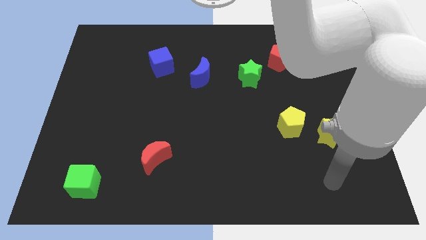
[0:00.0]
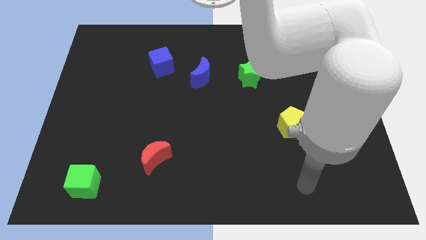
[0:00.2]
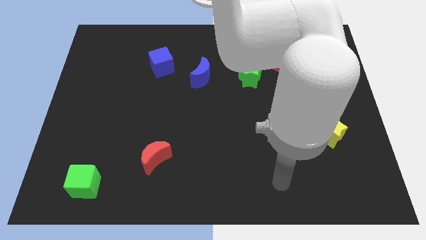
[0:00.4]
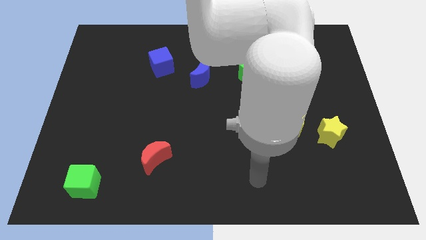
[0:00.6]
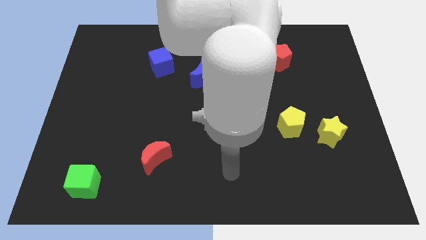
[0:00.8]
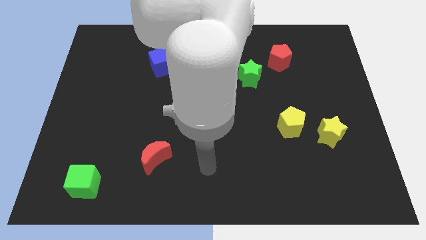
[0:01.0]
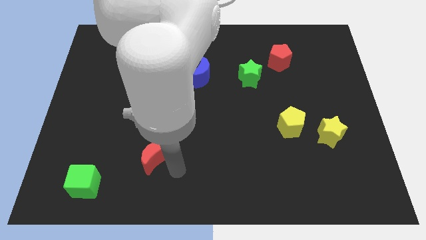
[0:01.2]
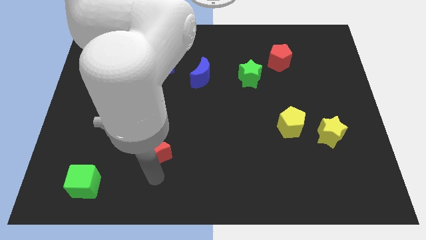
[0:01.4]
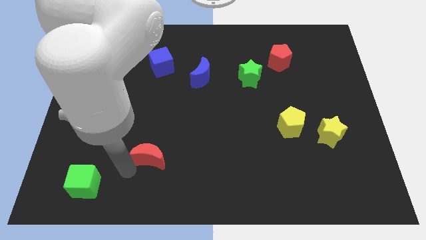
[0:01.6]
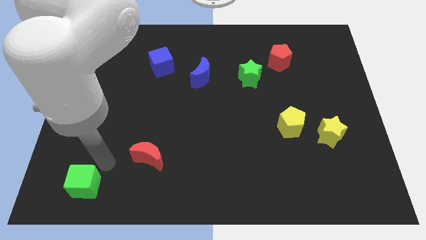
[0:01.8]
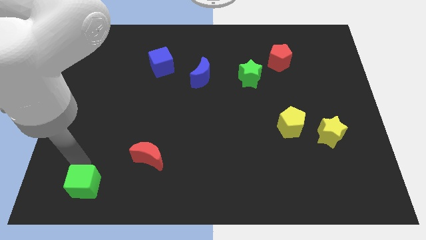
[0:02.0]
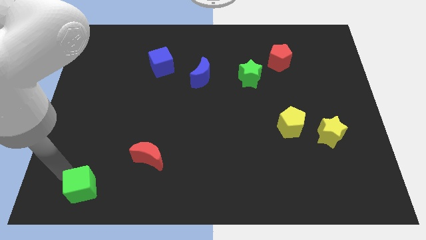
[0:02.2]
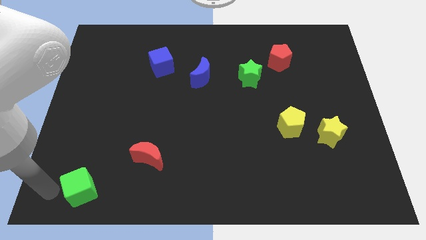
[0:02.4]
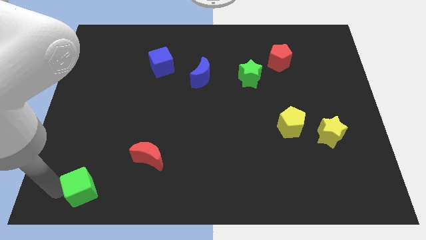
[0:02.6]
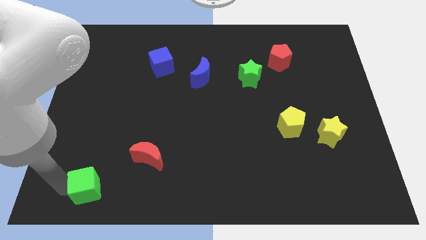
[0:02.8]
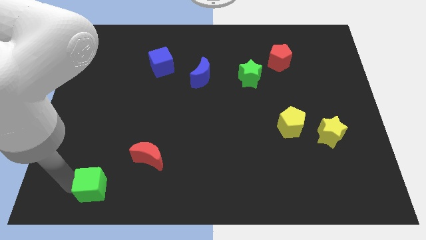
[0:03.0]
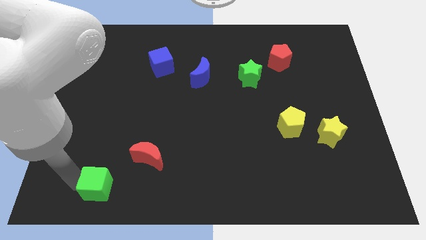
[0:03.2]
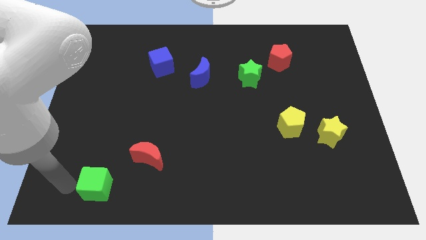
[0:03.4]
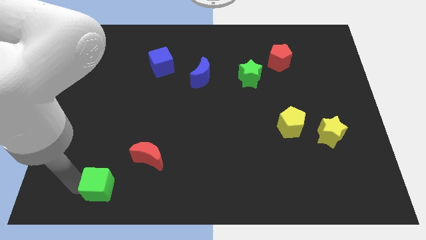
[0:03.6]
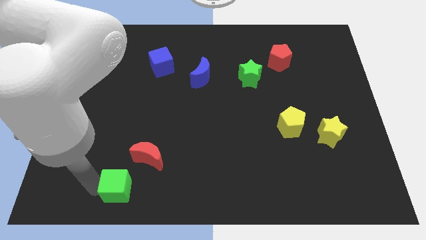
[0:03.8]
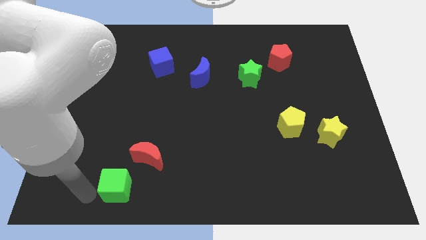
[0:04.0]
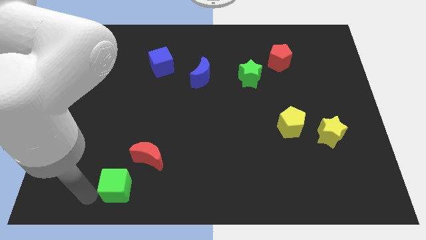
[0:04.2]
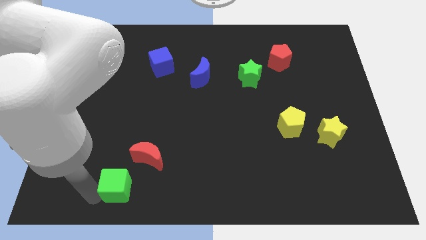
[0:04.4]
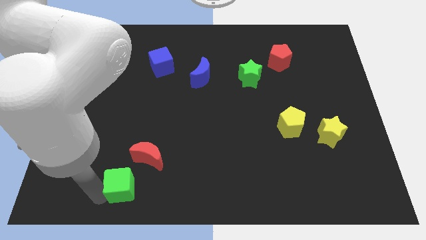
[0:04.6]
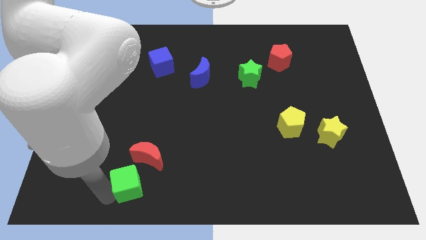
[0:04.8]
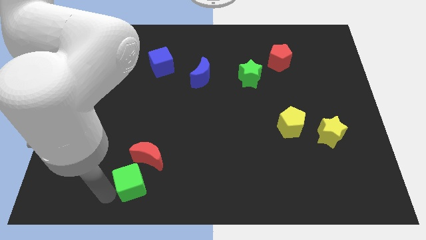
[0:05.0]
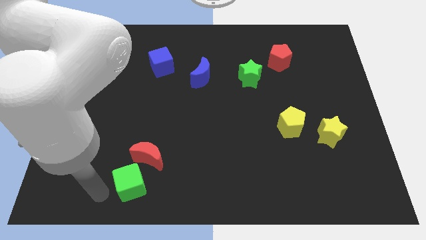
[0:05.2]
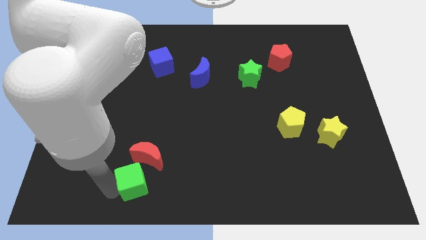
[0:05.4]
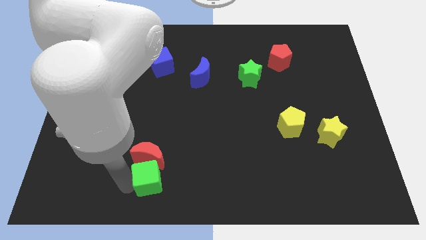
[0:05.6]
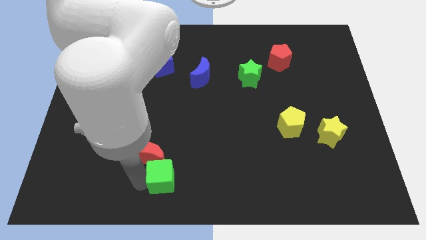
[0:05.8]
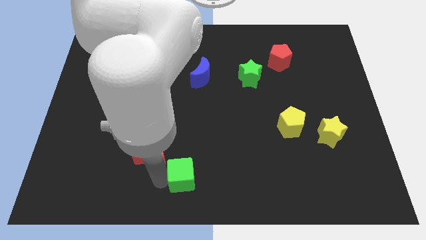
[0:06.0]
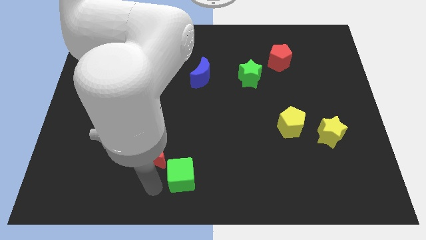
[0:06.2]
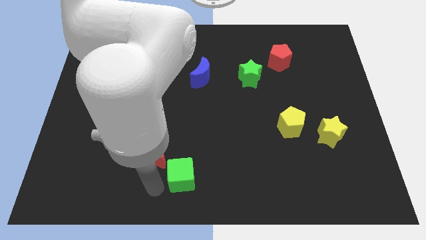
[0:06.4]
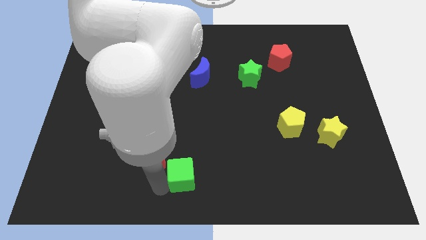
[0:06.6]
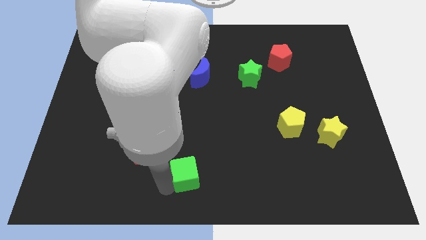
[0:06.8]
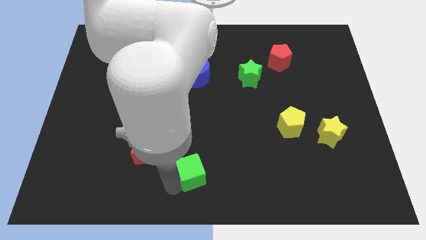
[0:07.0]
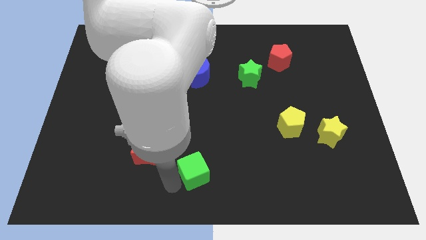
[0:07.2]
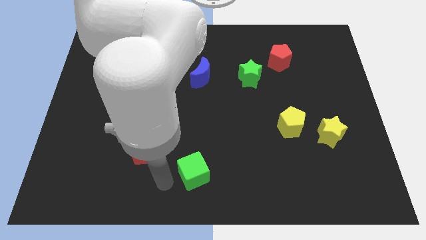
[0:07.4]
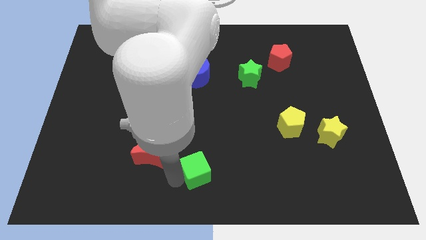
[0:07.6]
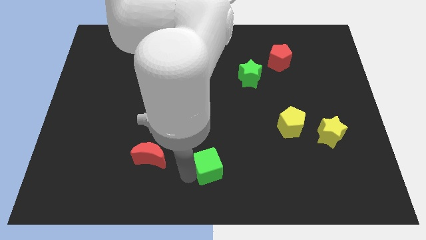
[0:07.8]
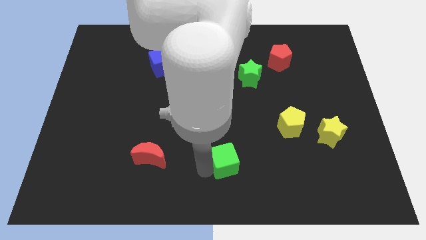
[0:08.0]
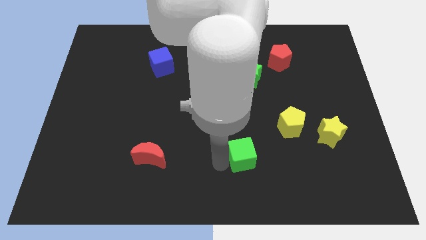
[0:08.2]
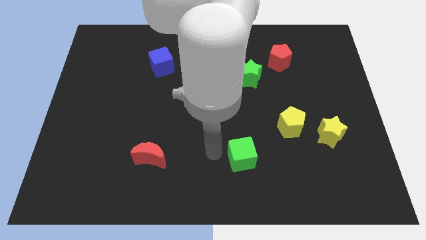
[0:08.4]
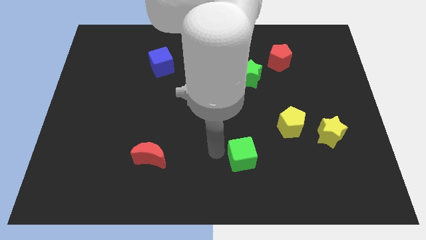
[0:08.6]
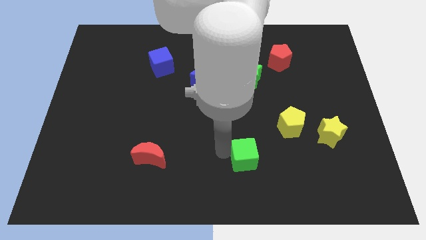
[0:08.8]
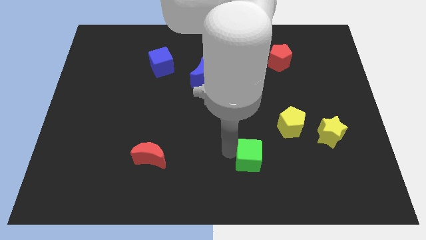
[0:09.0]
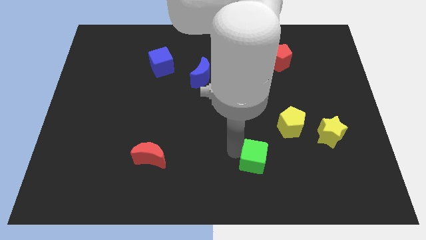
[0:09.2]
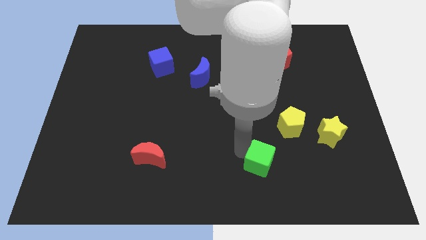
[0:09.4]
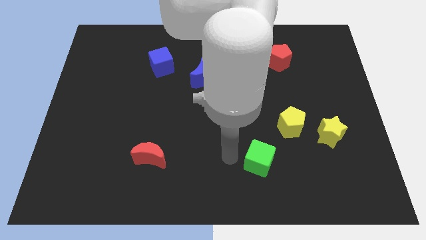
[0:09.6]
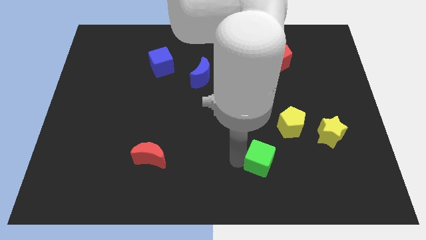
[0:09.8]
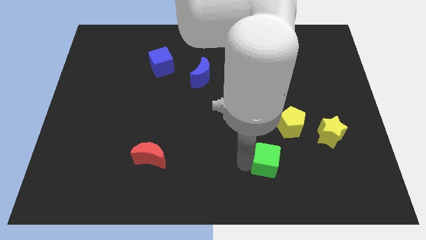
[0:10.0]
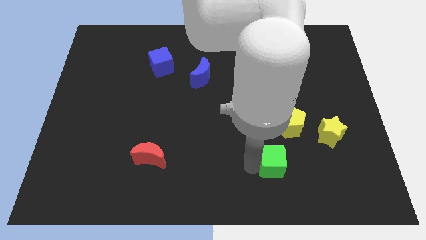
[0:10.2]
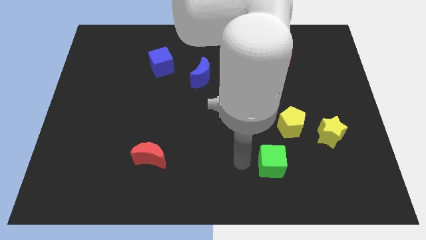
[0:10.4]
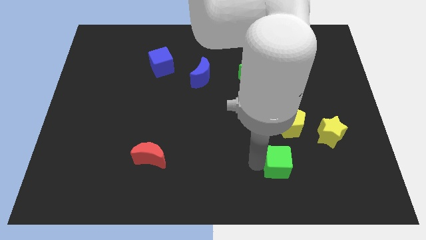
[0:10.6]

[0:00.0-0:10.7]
put the green cube to the bottom of the yellow pentagon

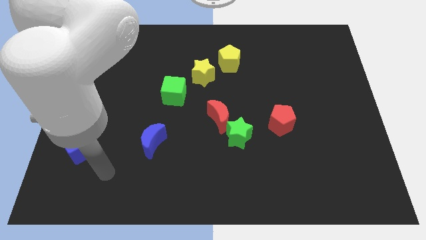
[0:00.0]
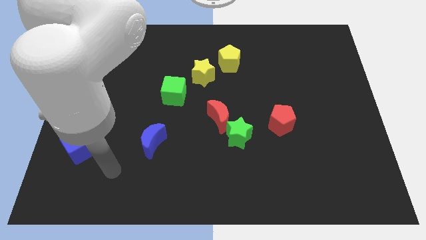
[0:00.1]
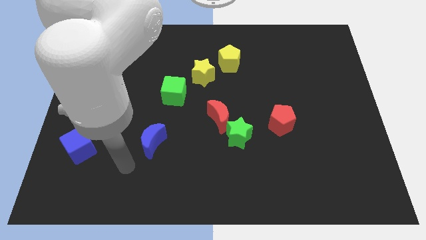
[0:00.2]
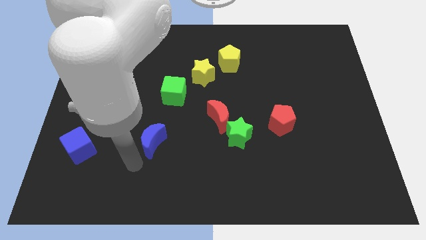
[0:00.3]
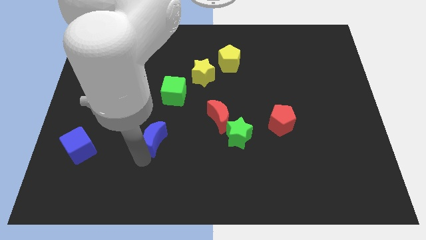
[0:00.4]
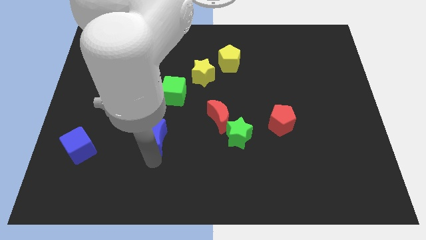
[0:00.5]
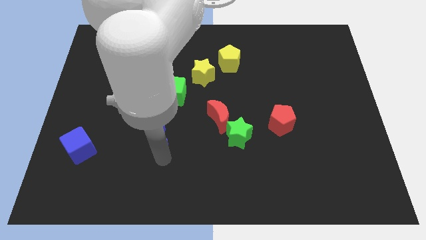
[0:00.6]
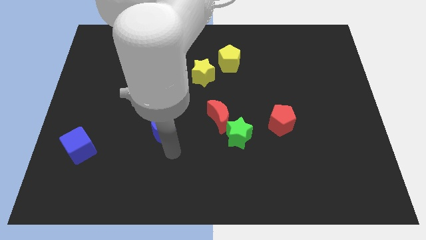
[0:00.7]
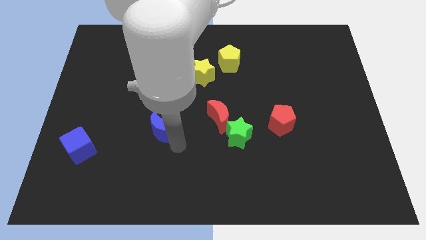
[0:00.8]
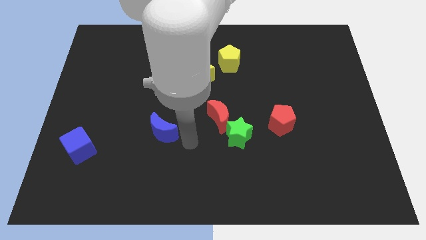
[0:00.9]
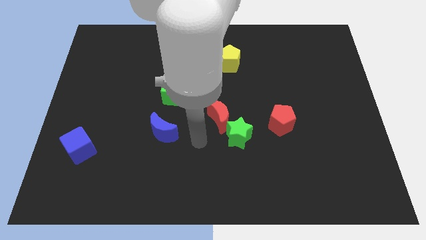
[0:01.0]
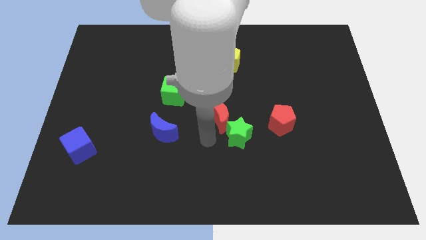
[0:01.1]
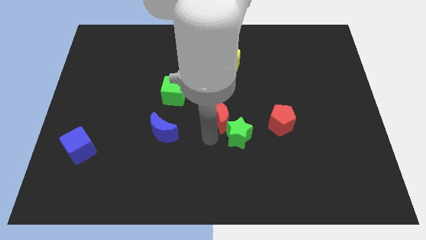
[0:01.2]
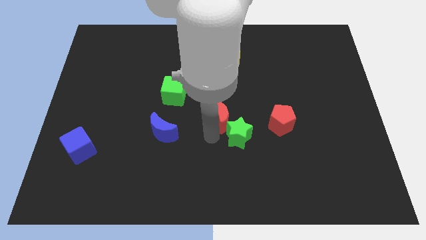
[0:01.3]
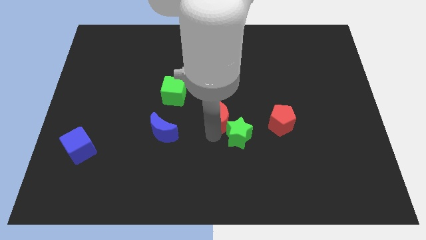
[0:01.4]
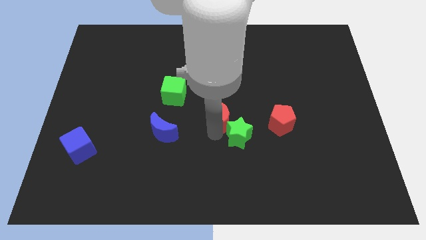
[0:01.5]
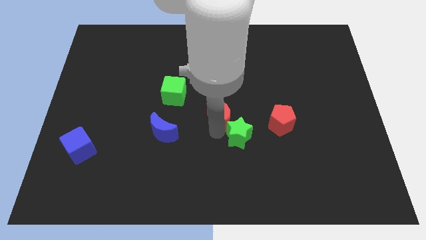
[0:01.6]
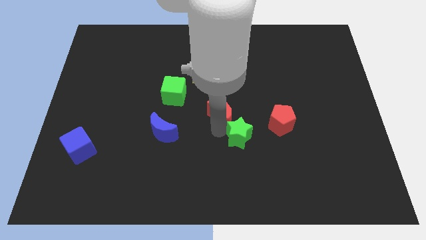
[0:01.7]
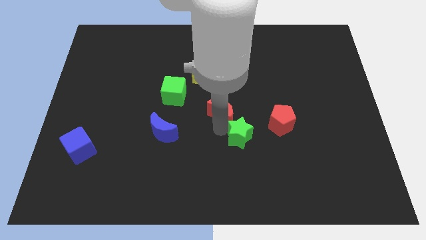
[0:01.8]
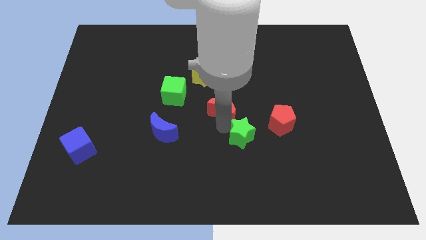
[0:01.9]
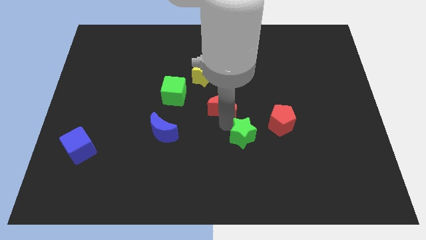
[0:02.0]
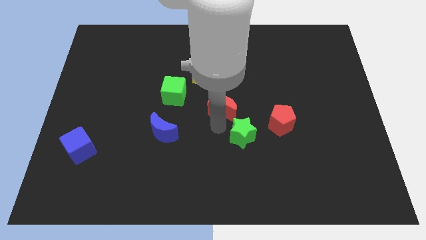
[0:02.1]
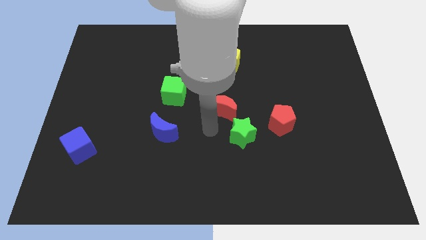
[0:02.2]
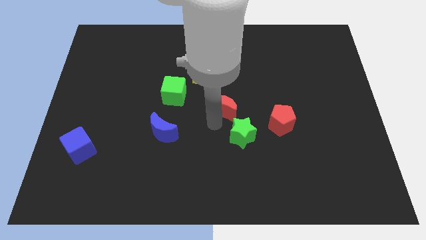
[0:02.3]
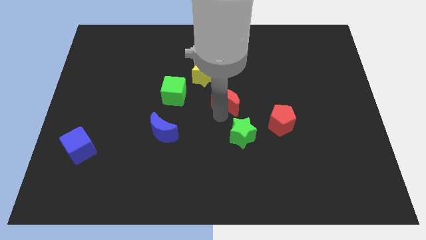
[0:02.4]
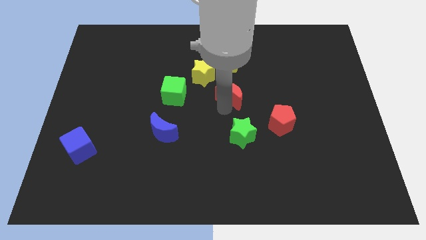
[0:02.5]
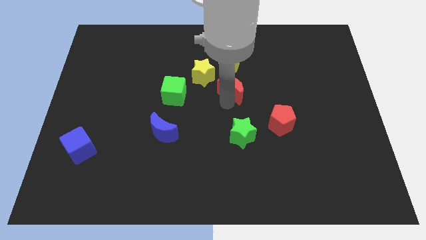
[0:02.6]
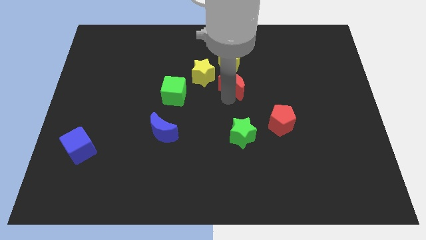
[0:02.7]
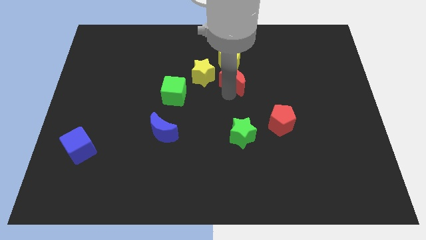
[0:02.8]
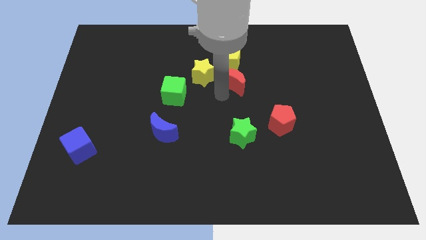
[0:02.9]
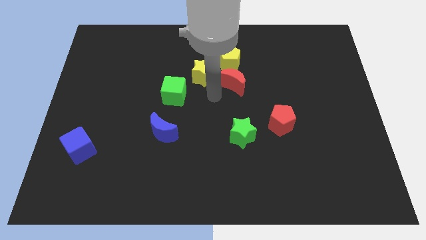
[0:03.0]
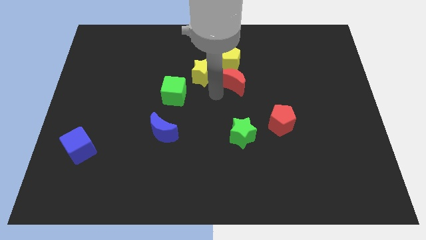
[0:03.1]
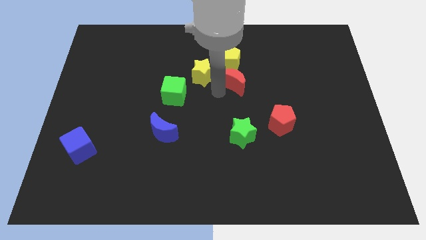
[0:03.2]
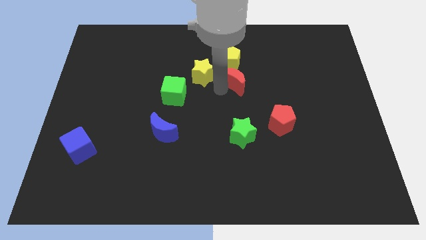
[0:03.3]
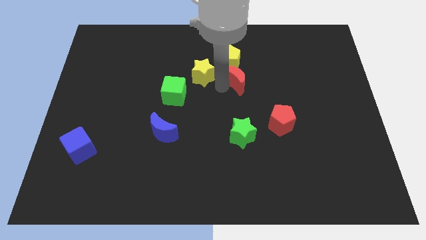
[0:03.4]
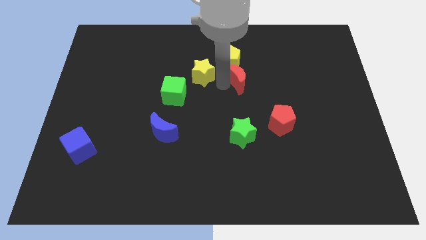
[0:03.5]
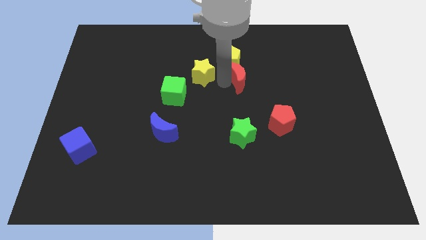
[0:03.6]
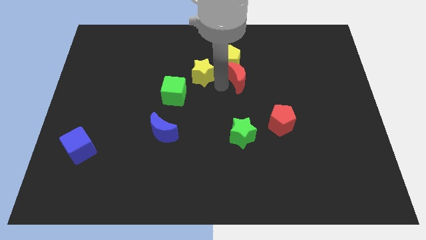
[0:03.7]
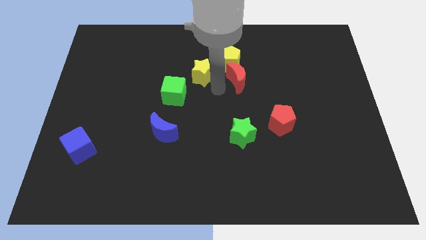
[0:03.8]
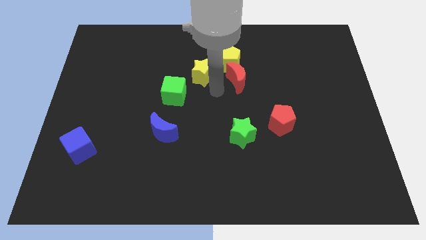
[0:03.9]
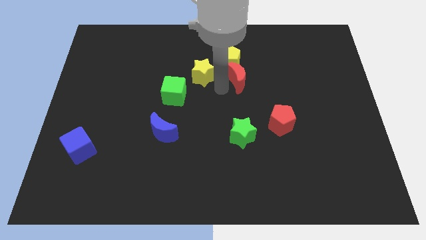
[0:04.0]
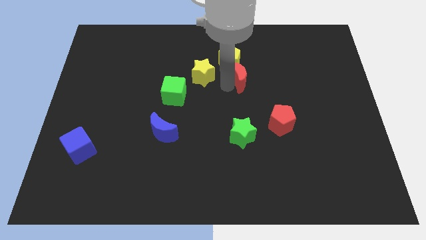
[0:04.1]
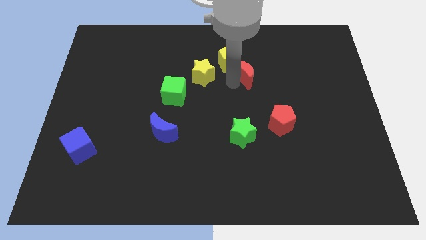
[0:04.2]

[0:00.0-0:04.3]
put the red moon right of the yellow pentagon
